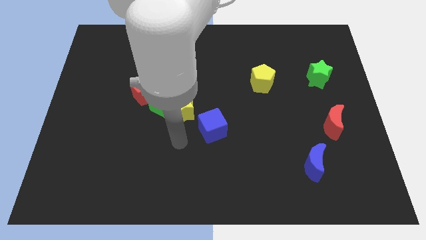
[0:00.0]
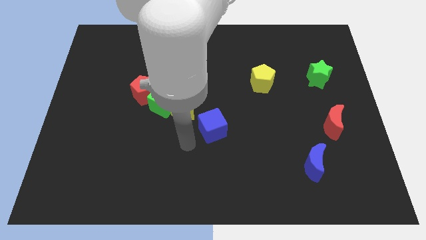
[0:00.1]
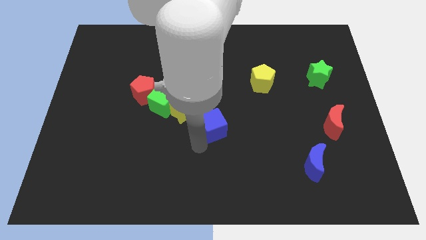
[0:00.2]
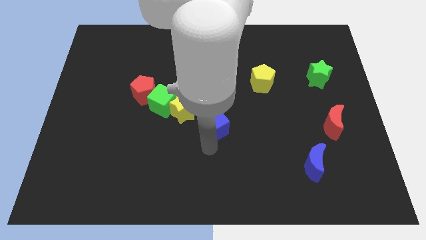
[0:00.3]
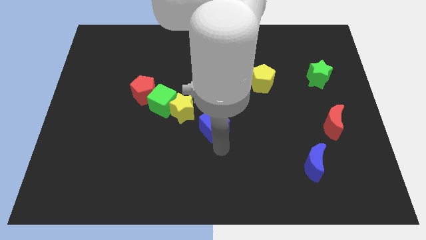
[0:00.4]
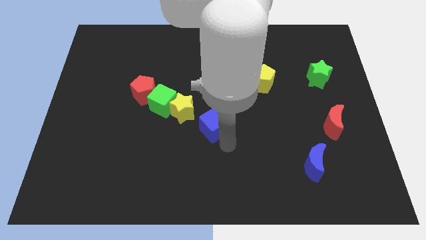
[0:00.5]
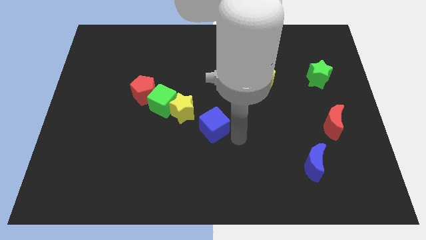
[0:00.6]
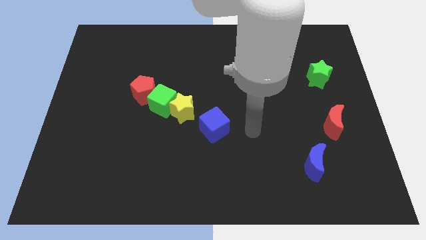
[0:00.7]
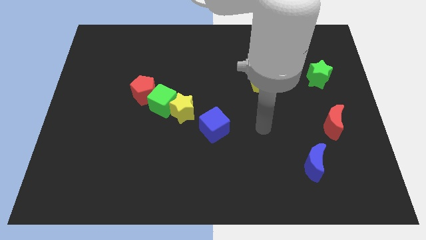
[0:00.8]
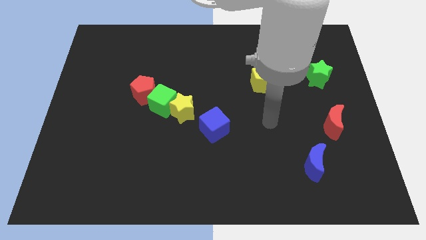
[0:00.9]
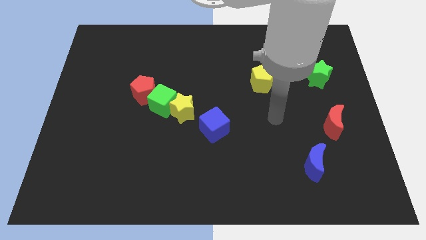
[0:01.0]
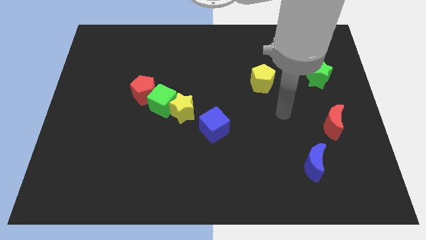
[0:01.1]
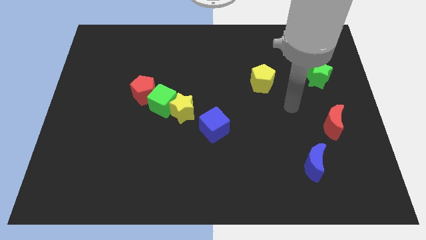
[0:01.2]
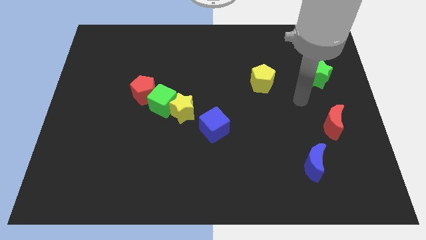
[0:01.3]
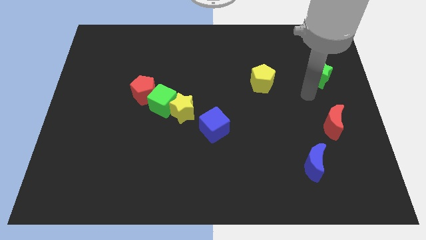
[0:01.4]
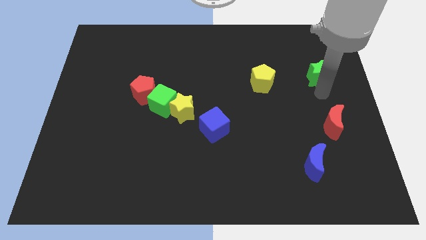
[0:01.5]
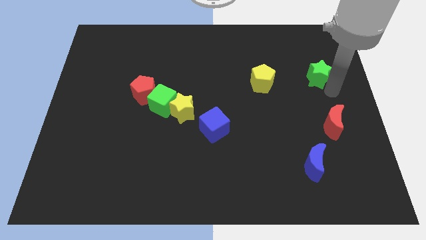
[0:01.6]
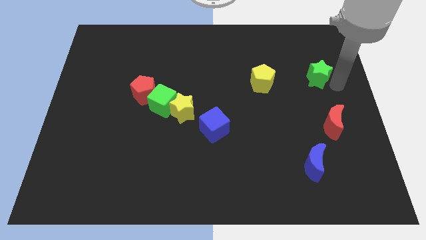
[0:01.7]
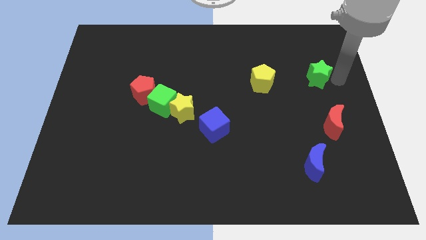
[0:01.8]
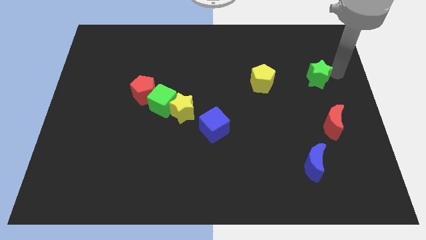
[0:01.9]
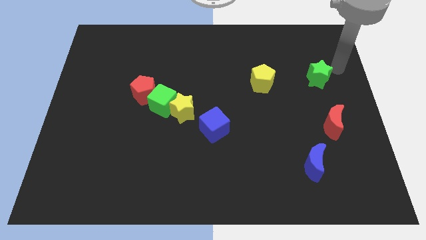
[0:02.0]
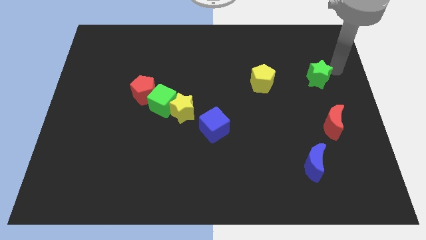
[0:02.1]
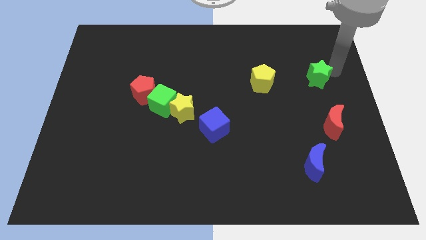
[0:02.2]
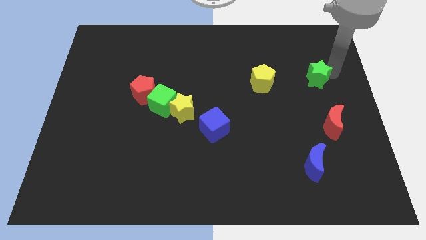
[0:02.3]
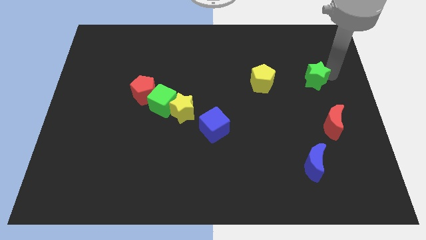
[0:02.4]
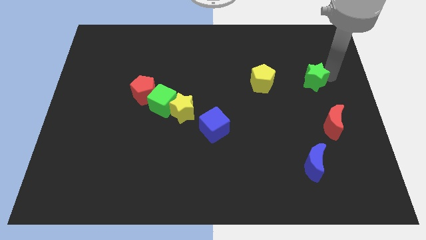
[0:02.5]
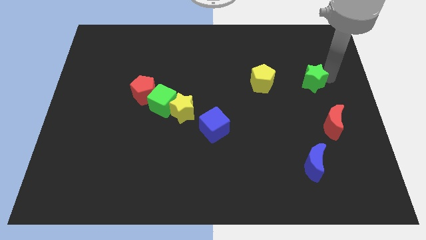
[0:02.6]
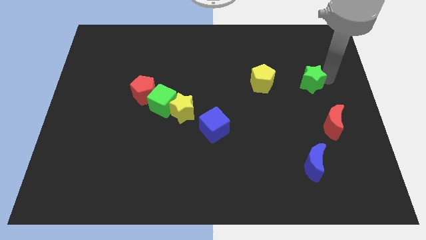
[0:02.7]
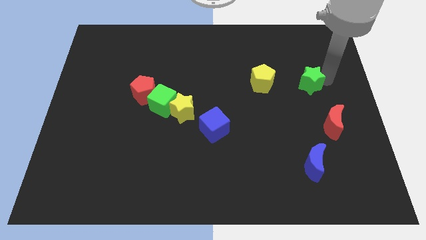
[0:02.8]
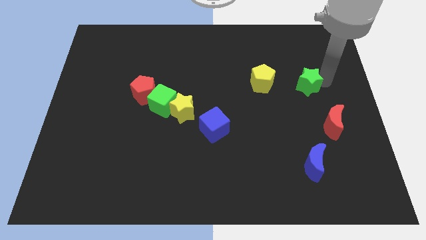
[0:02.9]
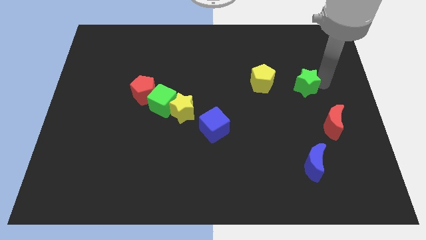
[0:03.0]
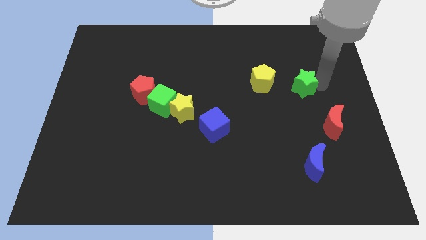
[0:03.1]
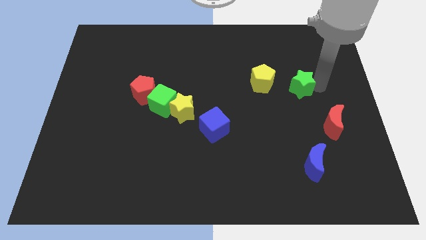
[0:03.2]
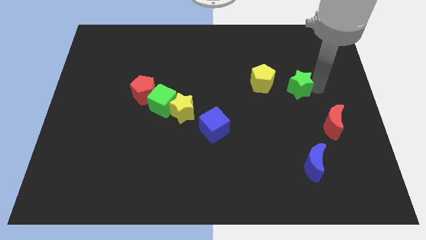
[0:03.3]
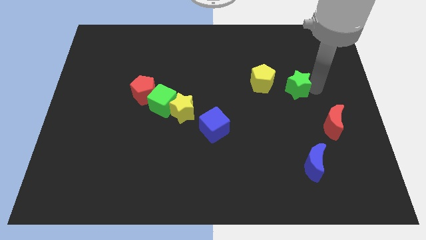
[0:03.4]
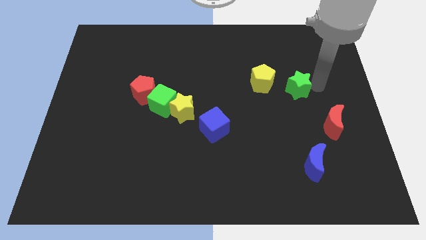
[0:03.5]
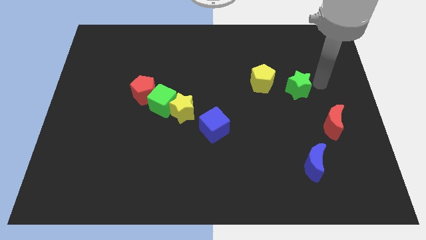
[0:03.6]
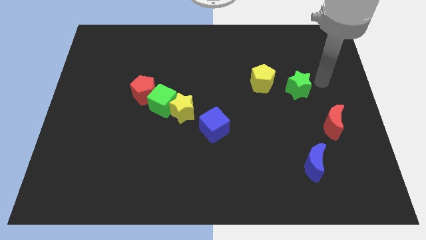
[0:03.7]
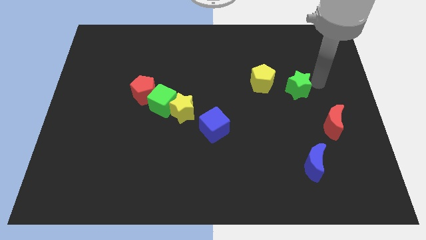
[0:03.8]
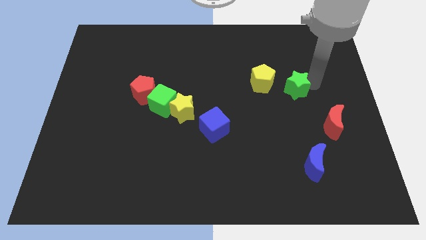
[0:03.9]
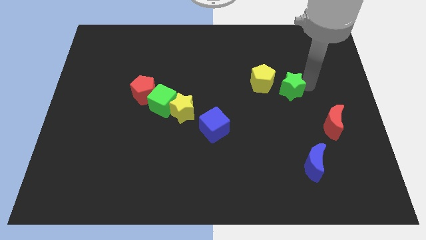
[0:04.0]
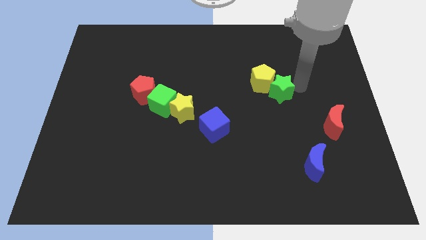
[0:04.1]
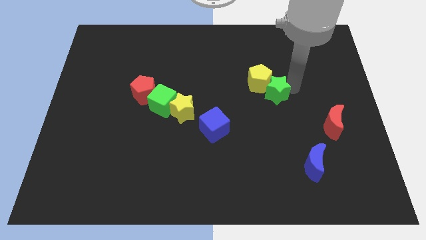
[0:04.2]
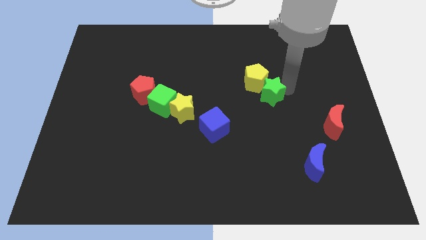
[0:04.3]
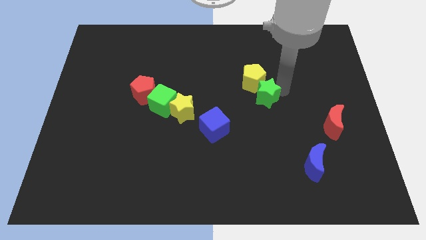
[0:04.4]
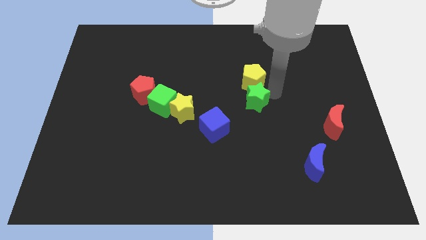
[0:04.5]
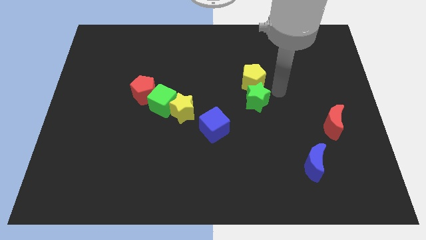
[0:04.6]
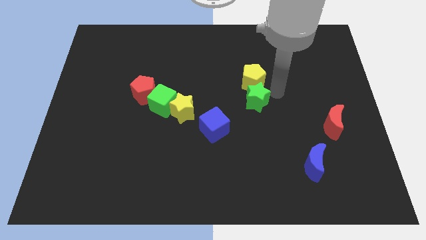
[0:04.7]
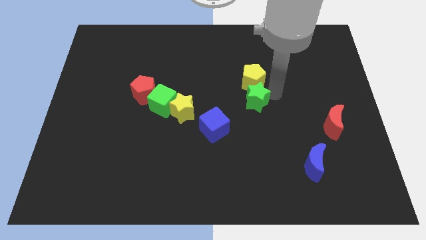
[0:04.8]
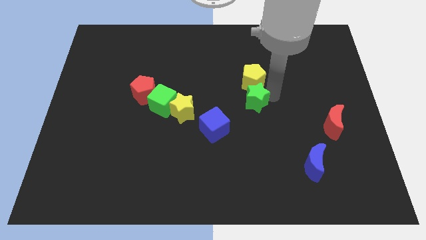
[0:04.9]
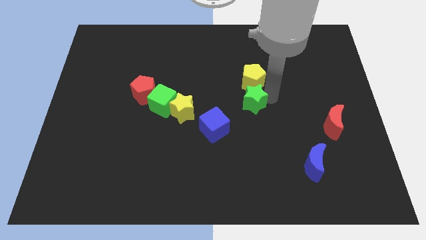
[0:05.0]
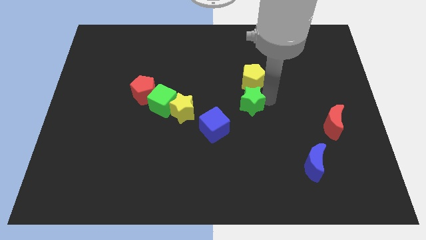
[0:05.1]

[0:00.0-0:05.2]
move the green star to the right of the yellow star

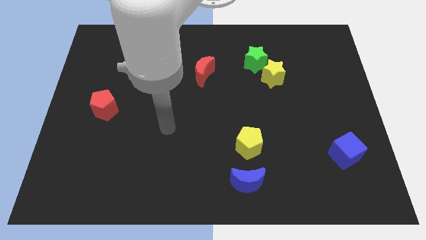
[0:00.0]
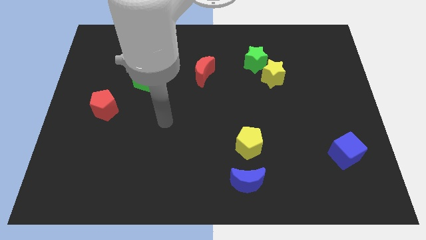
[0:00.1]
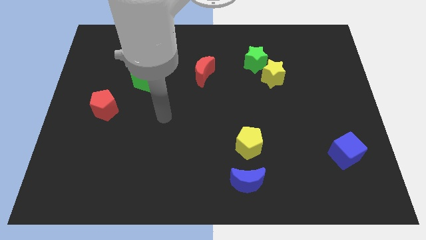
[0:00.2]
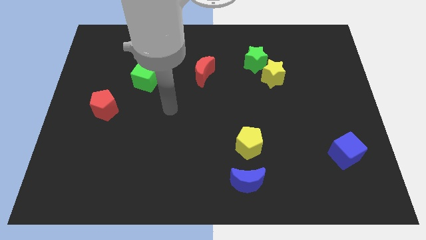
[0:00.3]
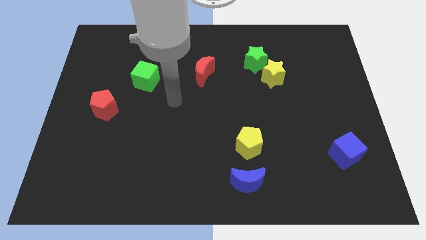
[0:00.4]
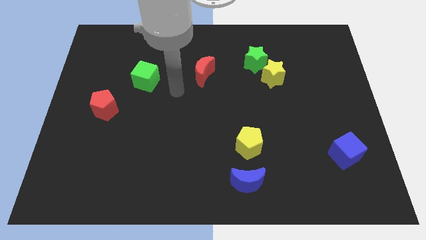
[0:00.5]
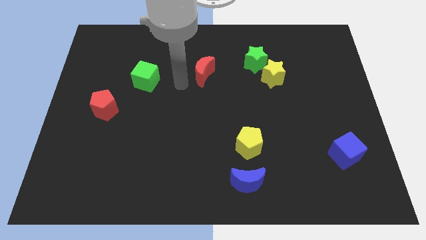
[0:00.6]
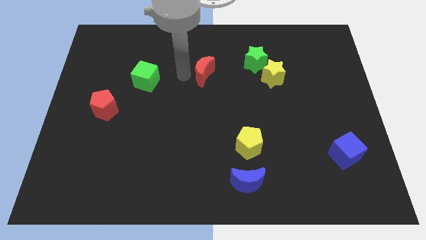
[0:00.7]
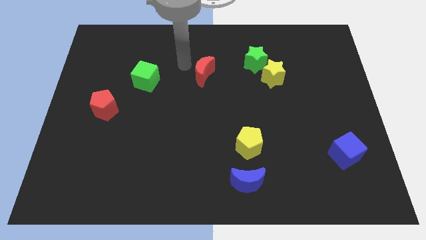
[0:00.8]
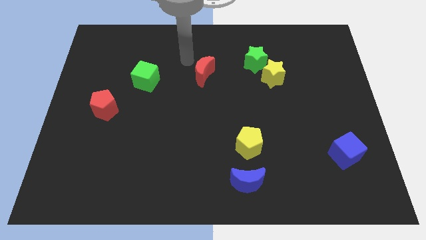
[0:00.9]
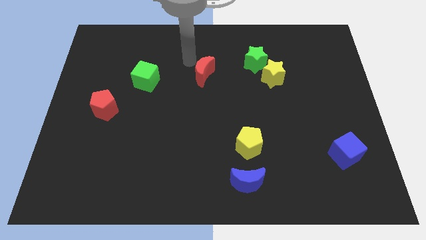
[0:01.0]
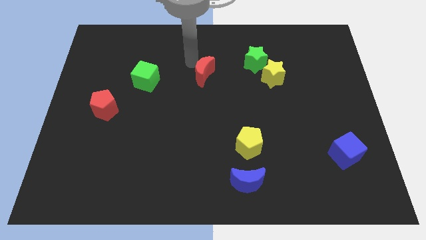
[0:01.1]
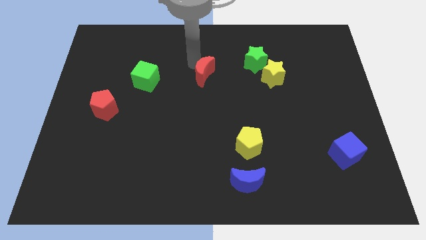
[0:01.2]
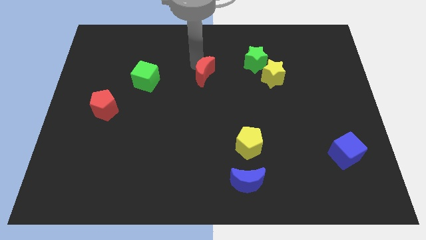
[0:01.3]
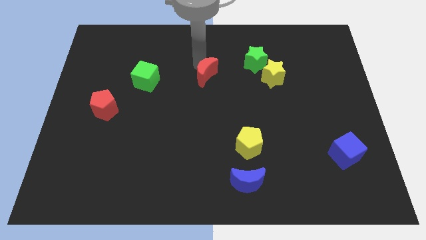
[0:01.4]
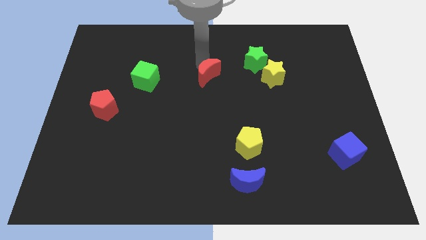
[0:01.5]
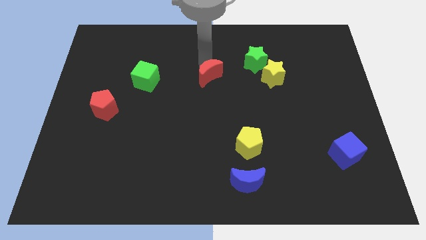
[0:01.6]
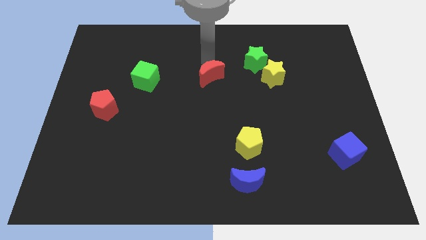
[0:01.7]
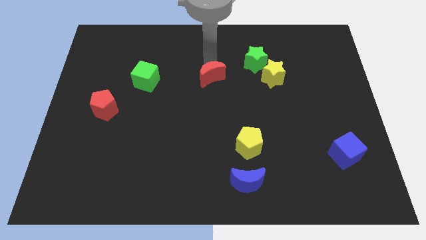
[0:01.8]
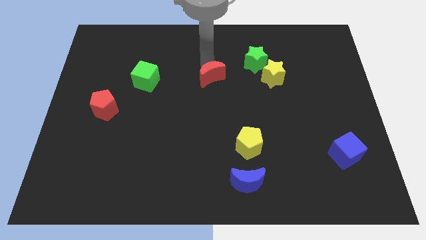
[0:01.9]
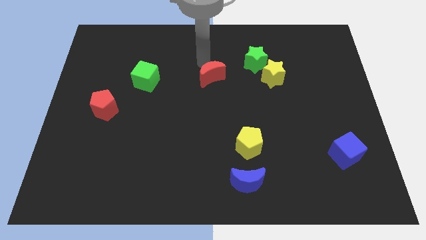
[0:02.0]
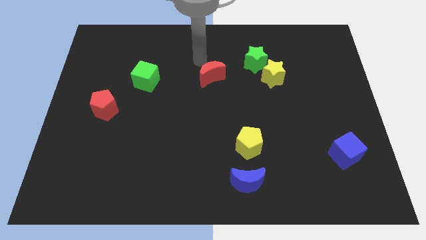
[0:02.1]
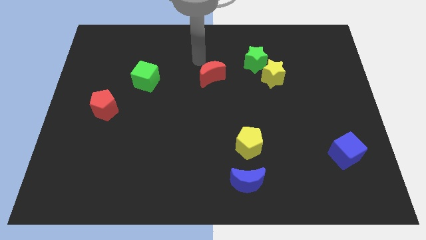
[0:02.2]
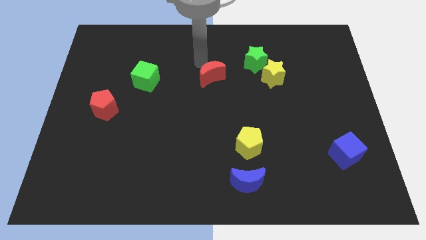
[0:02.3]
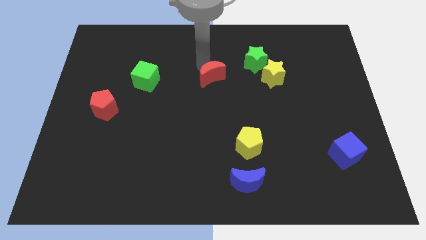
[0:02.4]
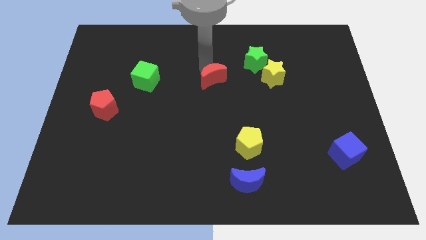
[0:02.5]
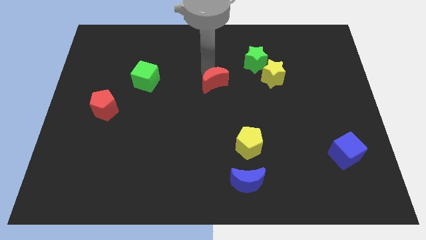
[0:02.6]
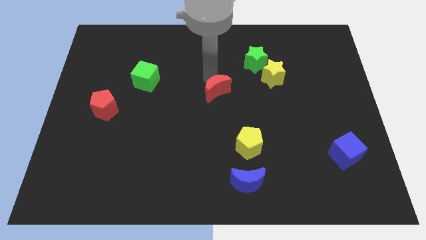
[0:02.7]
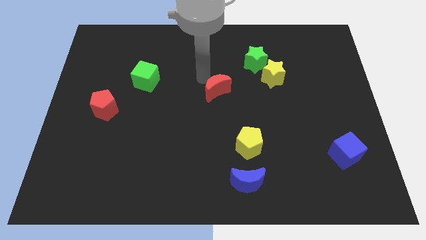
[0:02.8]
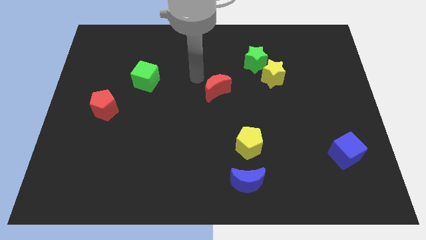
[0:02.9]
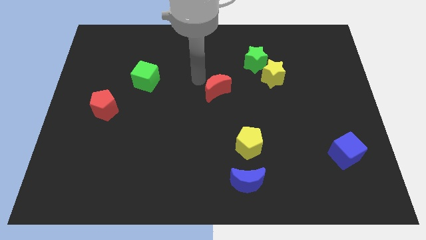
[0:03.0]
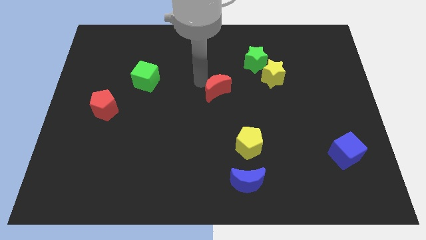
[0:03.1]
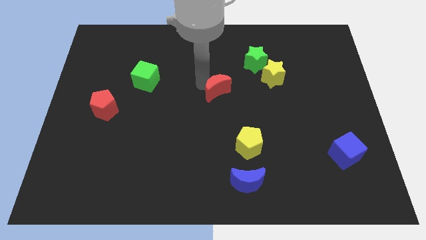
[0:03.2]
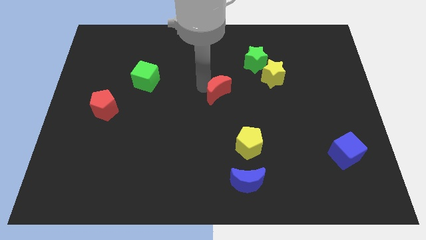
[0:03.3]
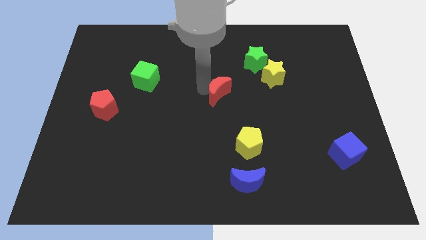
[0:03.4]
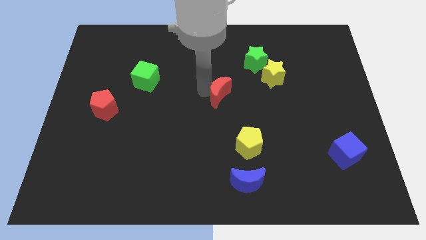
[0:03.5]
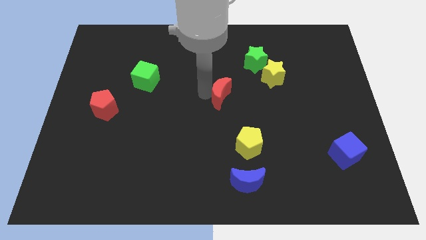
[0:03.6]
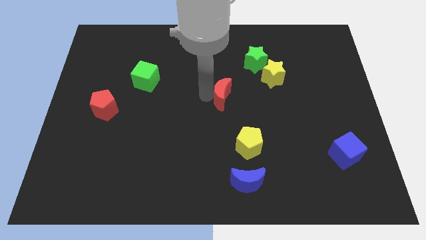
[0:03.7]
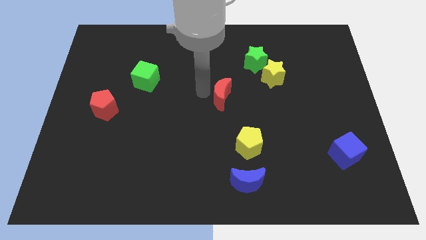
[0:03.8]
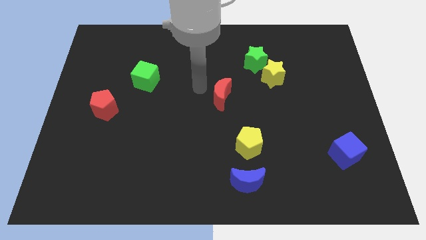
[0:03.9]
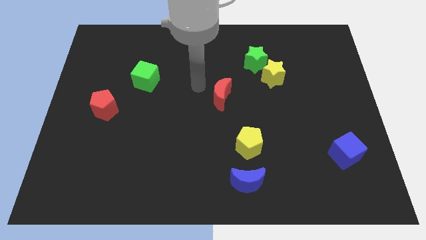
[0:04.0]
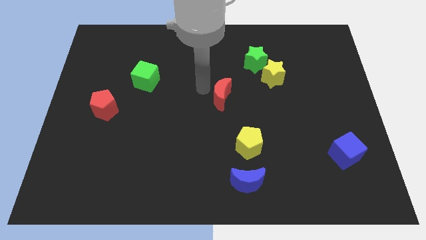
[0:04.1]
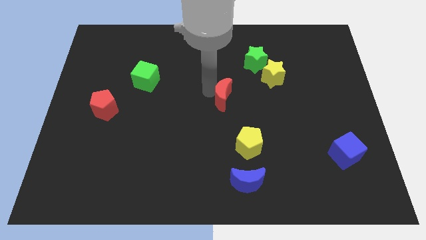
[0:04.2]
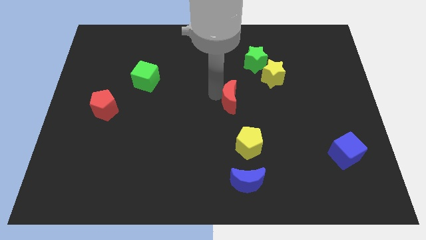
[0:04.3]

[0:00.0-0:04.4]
move the red moon to the top side of the yellow pentagon
